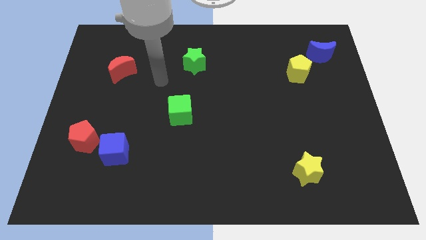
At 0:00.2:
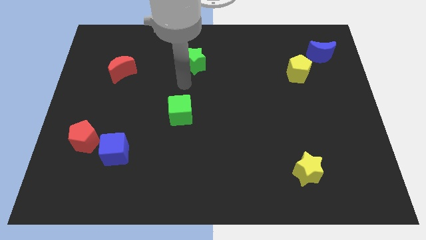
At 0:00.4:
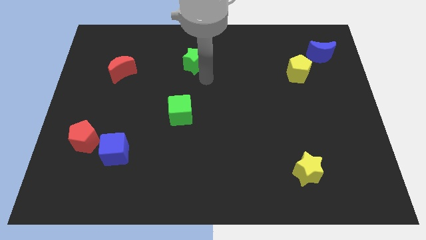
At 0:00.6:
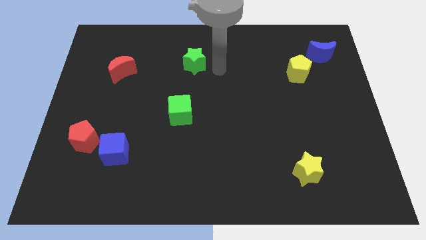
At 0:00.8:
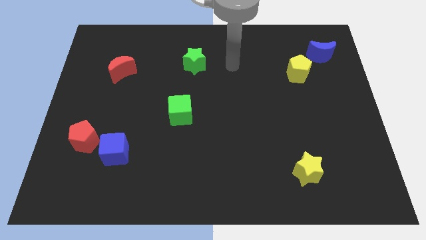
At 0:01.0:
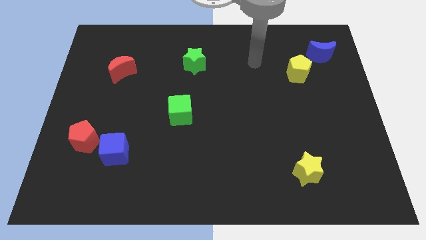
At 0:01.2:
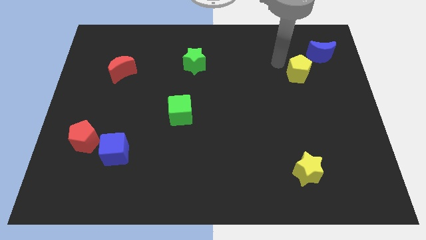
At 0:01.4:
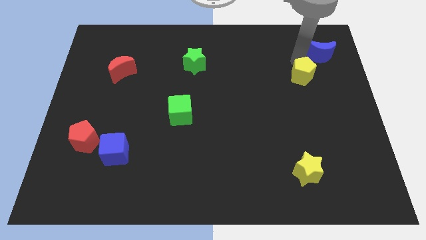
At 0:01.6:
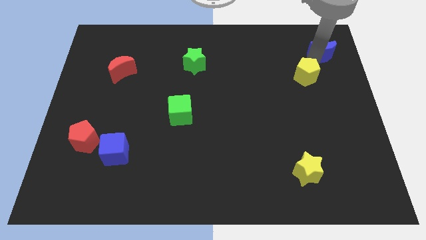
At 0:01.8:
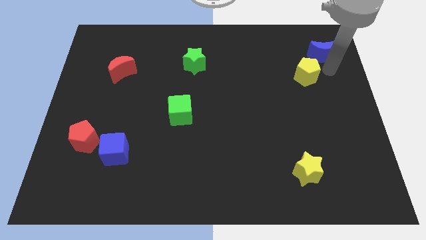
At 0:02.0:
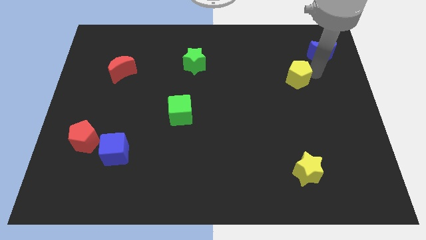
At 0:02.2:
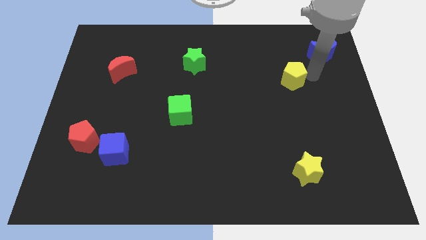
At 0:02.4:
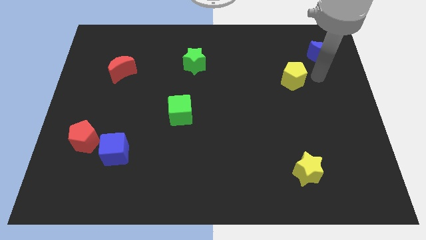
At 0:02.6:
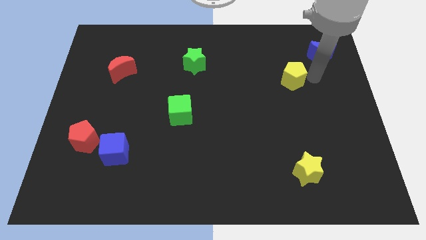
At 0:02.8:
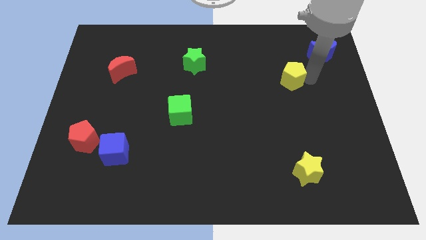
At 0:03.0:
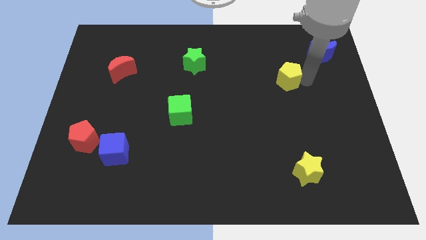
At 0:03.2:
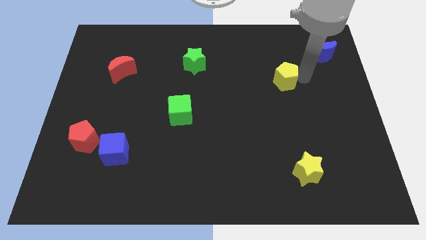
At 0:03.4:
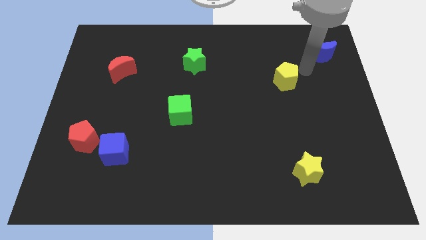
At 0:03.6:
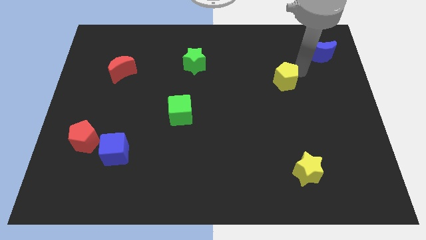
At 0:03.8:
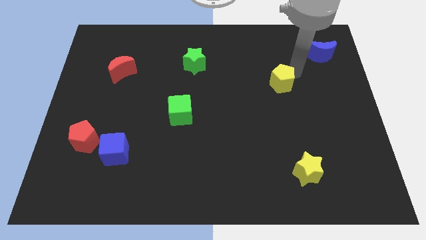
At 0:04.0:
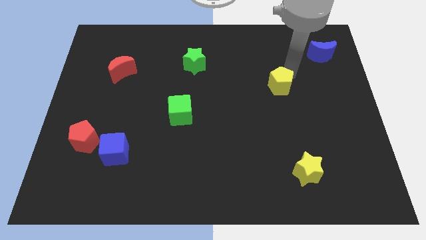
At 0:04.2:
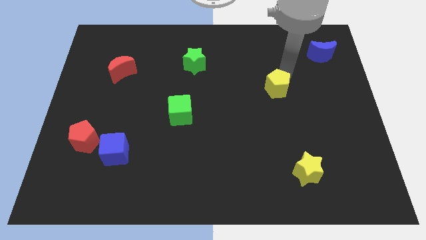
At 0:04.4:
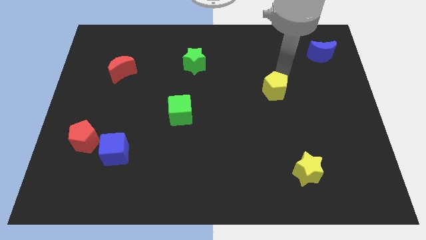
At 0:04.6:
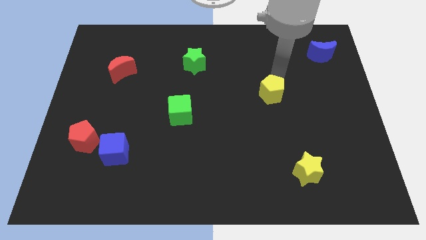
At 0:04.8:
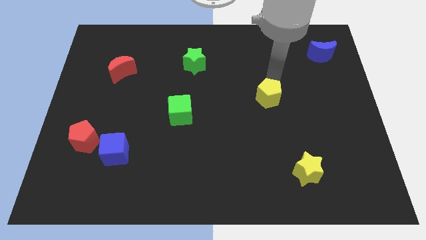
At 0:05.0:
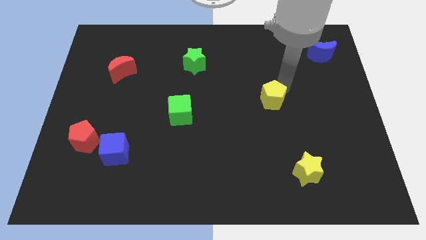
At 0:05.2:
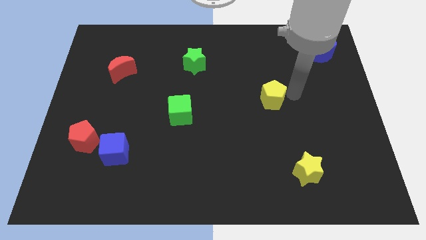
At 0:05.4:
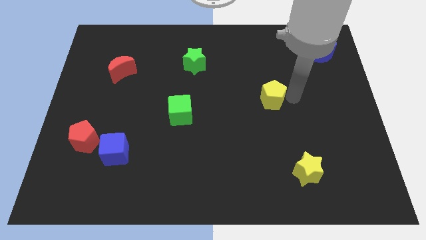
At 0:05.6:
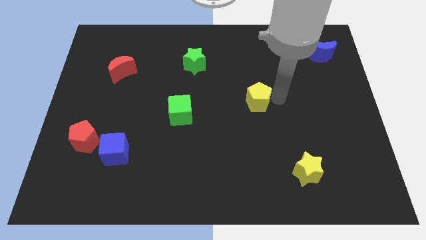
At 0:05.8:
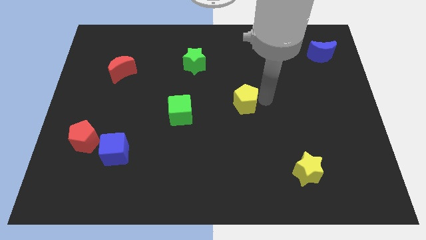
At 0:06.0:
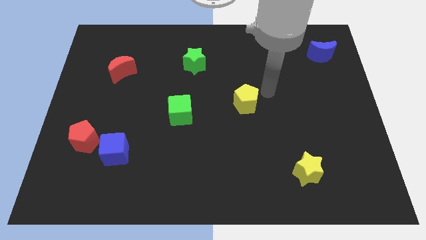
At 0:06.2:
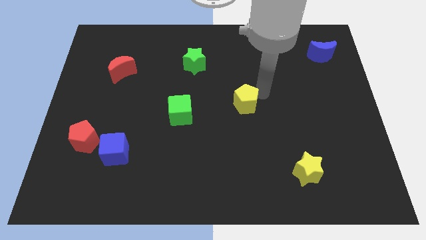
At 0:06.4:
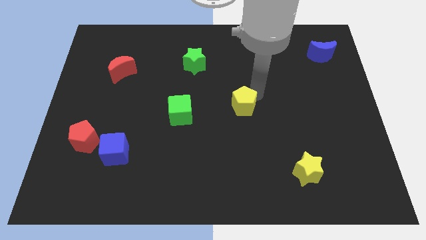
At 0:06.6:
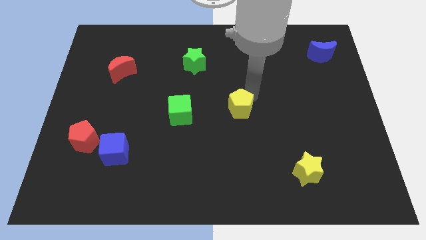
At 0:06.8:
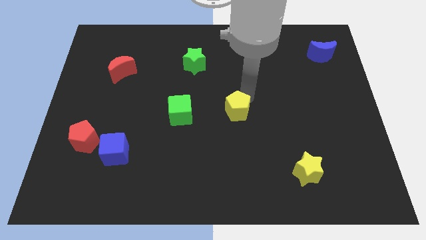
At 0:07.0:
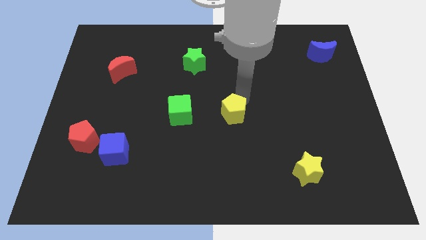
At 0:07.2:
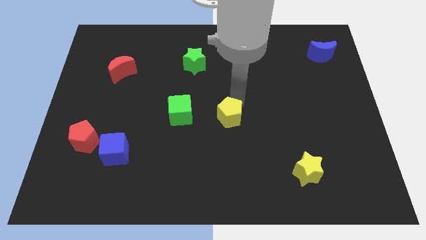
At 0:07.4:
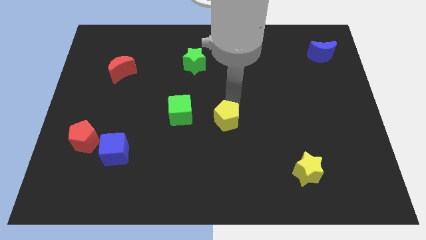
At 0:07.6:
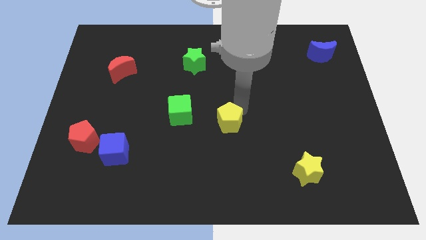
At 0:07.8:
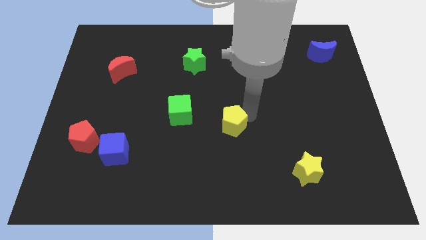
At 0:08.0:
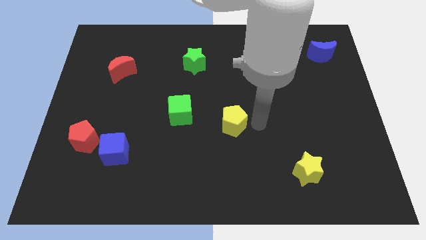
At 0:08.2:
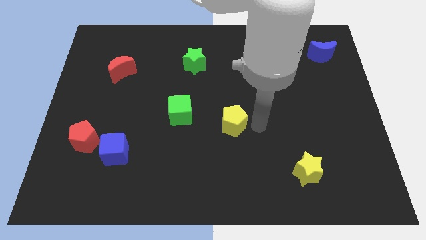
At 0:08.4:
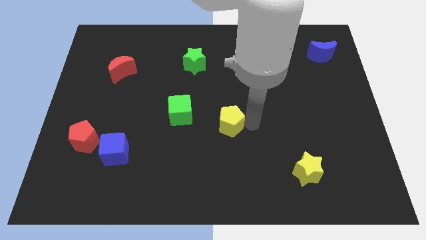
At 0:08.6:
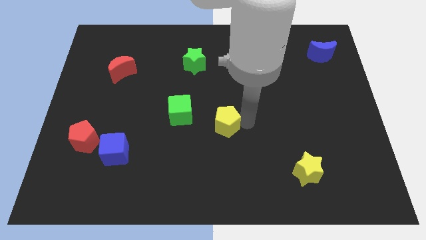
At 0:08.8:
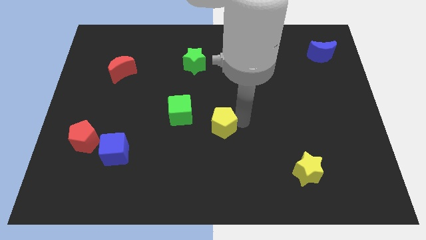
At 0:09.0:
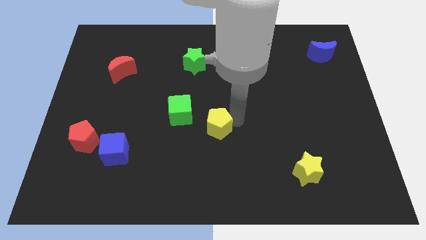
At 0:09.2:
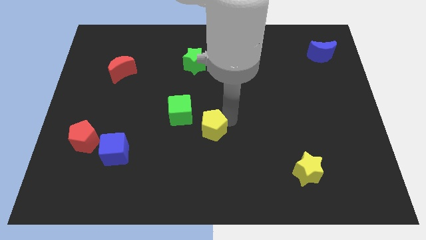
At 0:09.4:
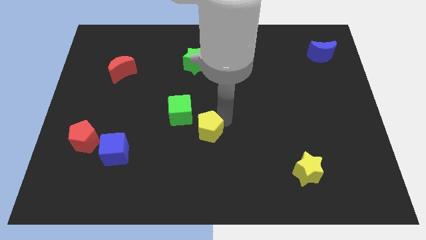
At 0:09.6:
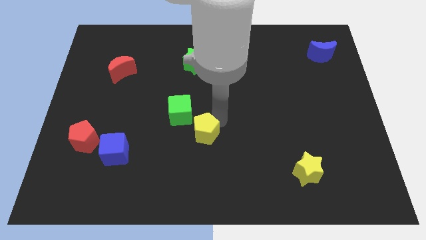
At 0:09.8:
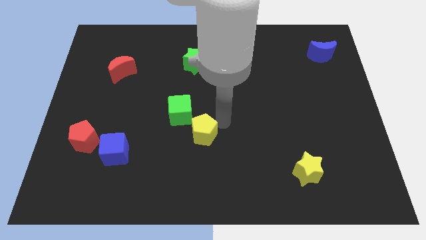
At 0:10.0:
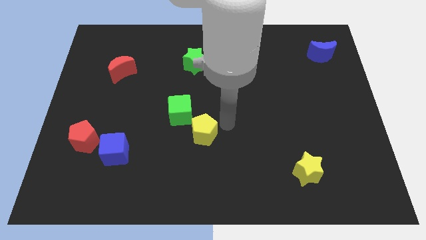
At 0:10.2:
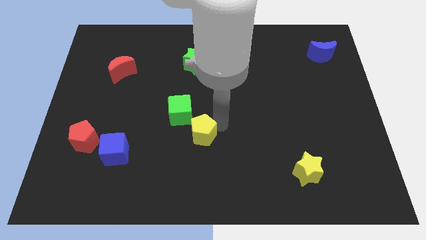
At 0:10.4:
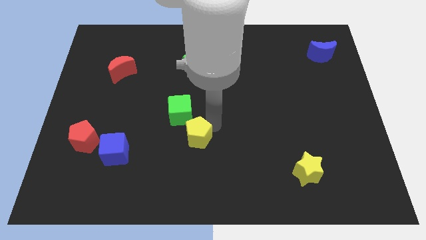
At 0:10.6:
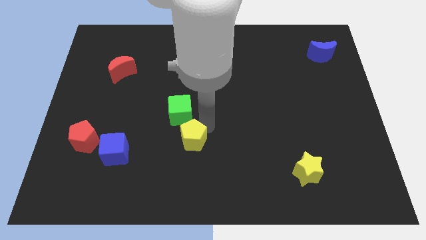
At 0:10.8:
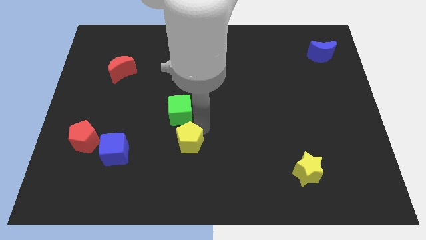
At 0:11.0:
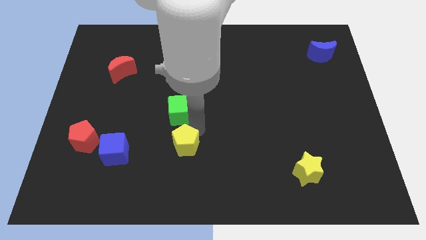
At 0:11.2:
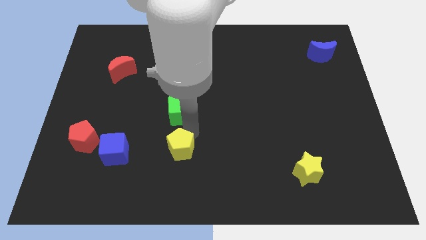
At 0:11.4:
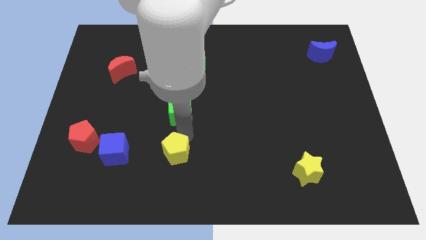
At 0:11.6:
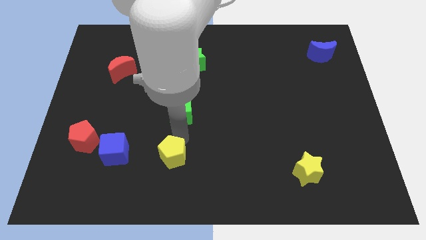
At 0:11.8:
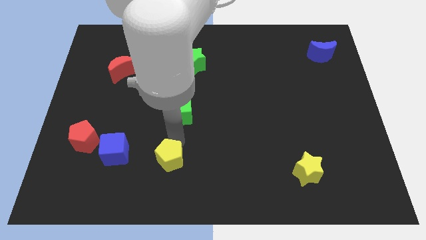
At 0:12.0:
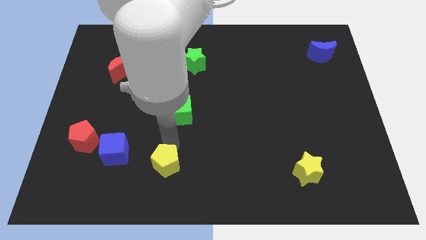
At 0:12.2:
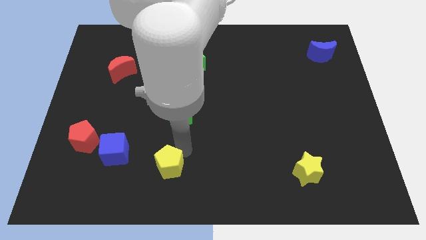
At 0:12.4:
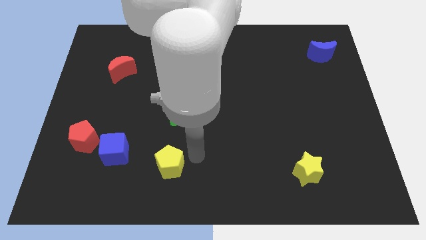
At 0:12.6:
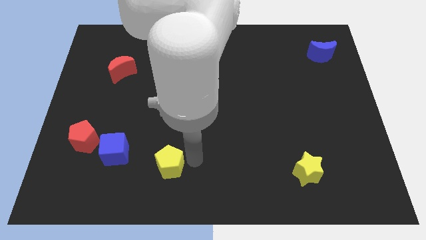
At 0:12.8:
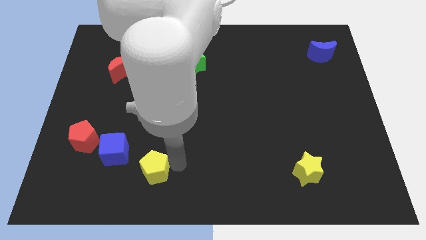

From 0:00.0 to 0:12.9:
move the yellow pentagon to the bottom right side of the blue cube

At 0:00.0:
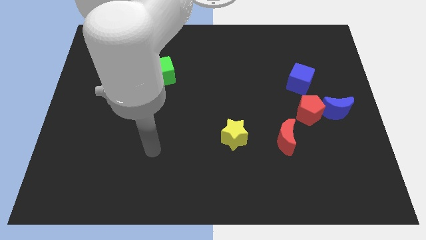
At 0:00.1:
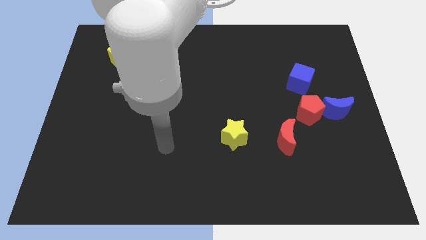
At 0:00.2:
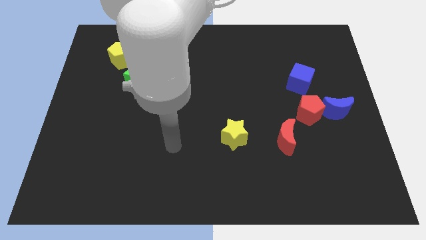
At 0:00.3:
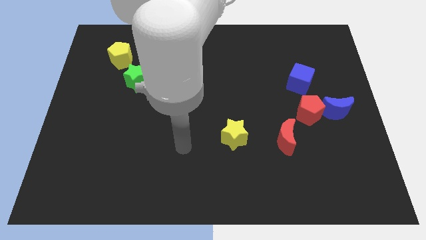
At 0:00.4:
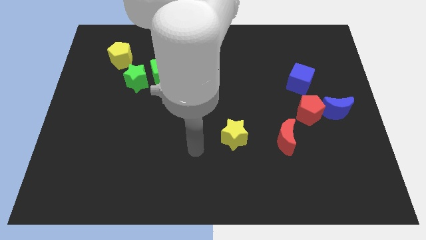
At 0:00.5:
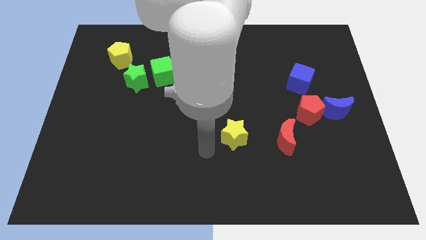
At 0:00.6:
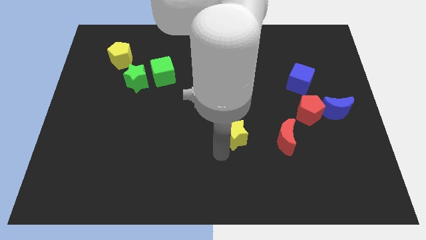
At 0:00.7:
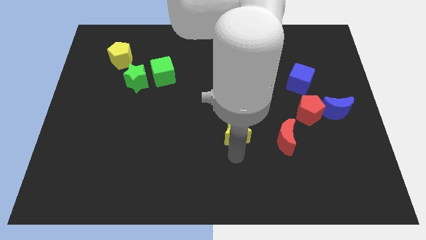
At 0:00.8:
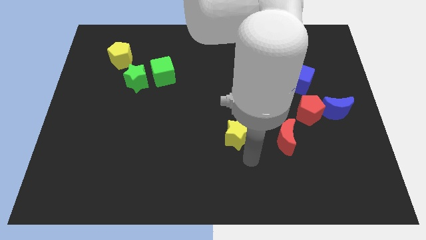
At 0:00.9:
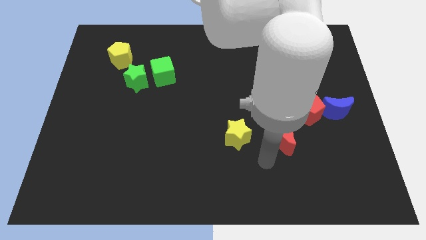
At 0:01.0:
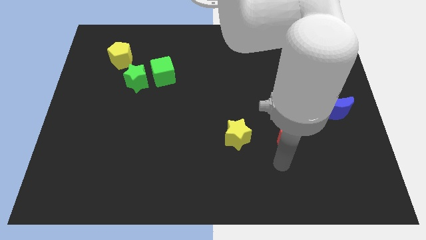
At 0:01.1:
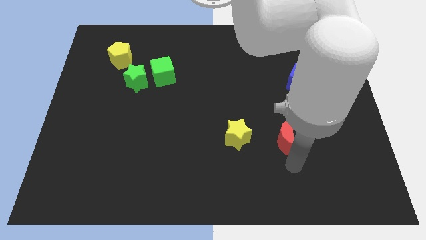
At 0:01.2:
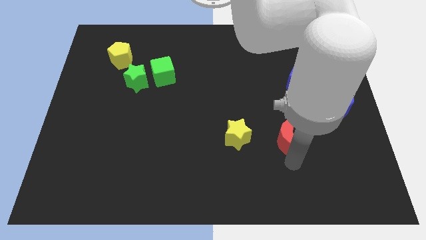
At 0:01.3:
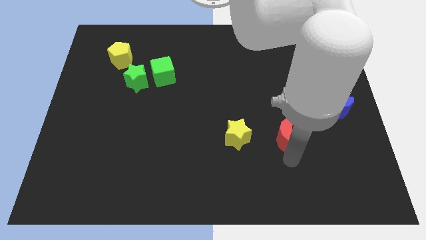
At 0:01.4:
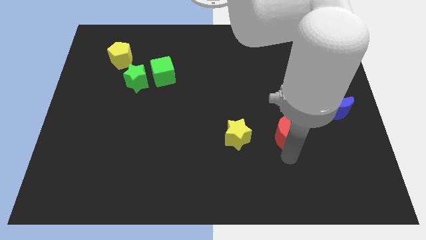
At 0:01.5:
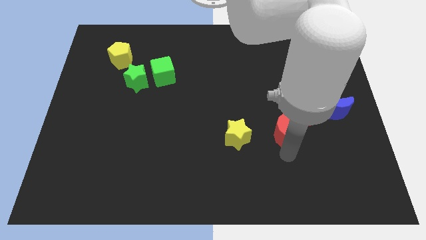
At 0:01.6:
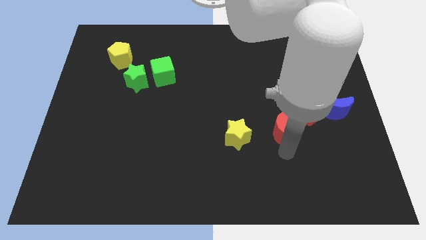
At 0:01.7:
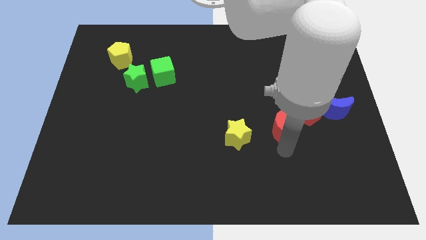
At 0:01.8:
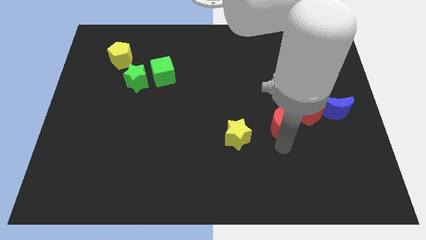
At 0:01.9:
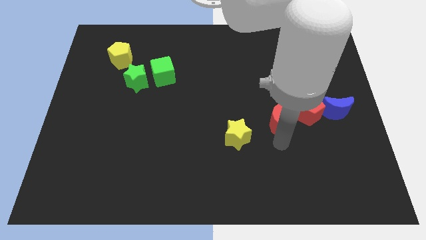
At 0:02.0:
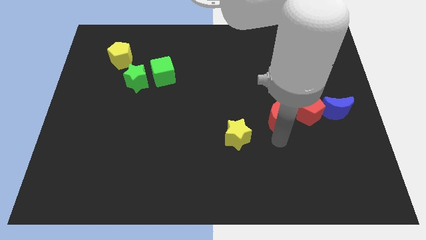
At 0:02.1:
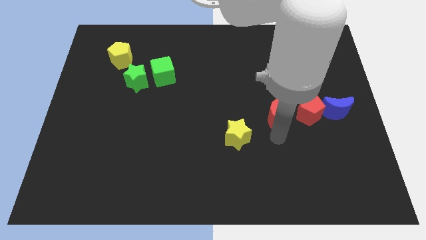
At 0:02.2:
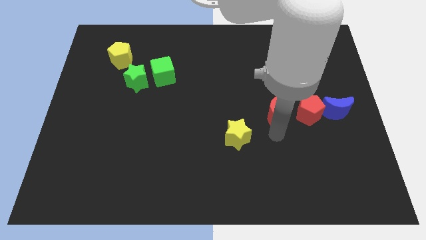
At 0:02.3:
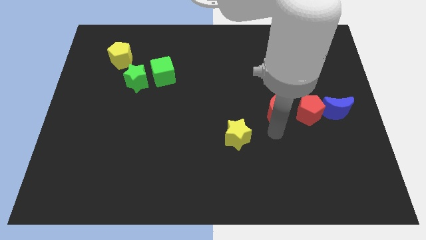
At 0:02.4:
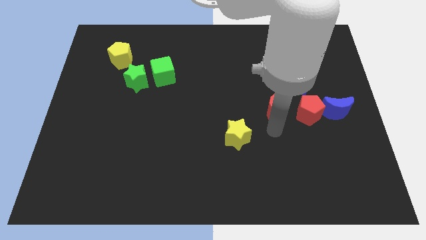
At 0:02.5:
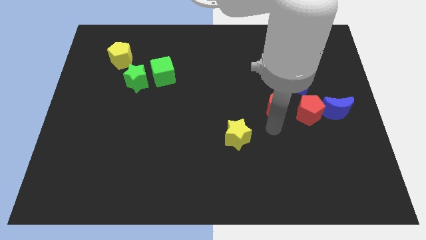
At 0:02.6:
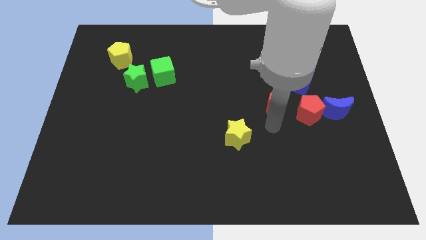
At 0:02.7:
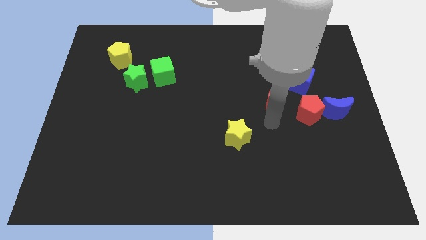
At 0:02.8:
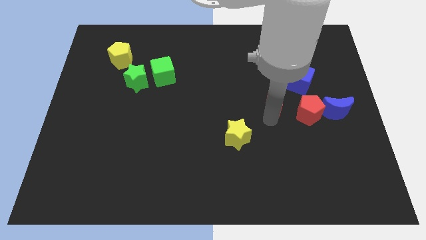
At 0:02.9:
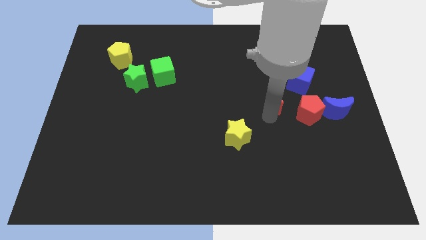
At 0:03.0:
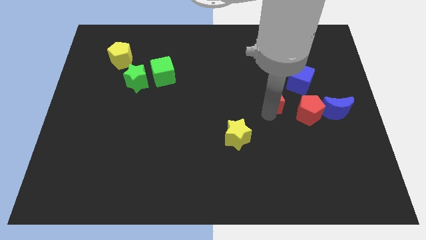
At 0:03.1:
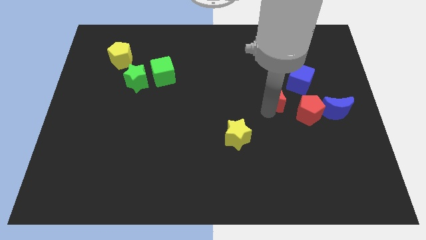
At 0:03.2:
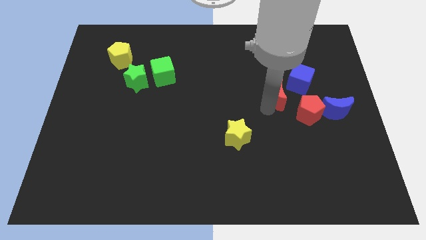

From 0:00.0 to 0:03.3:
slide the red moon just left of the blue cube
